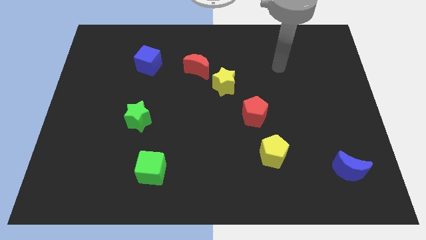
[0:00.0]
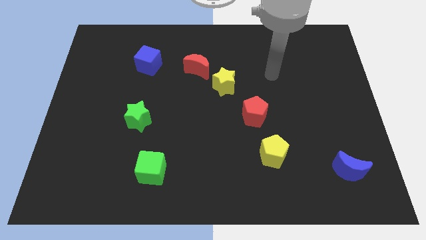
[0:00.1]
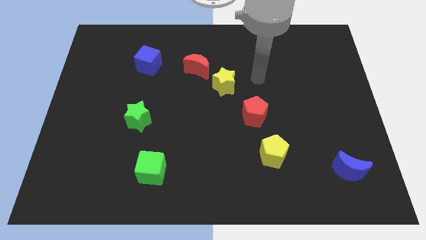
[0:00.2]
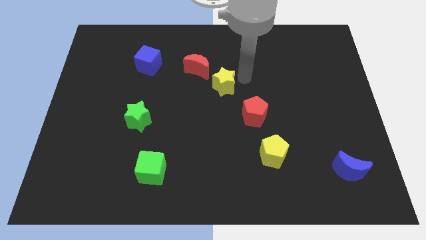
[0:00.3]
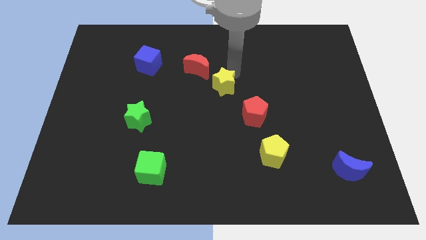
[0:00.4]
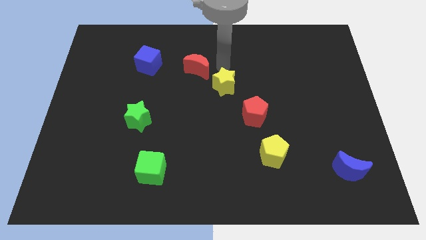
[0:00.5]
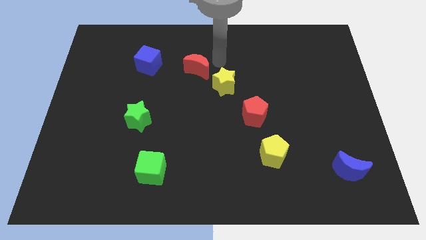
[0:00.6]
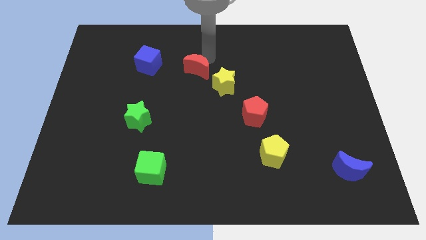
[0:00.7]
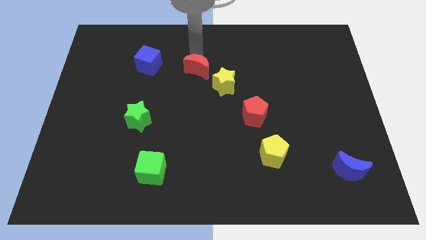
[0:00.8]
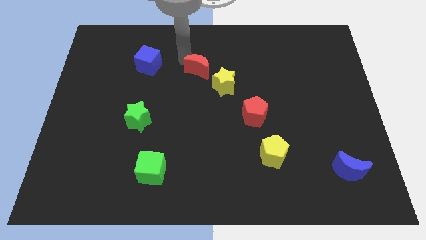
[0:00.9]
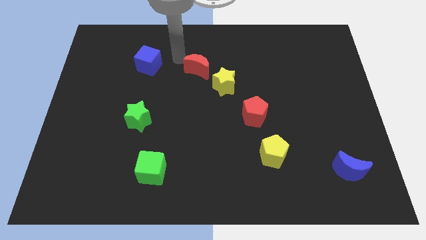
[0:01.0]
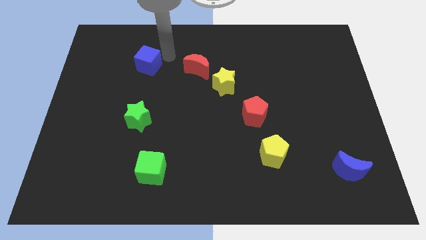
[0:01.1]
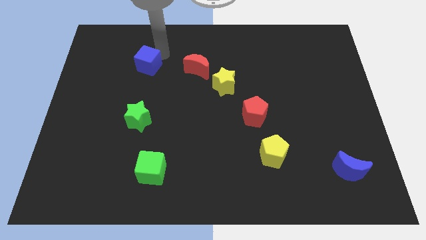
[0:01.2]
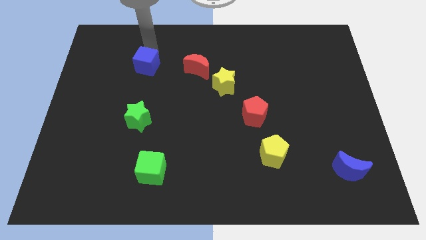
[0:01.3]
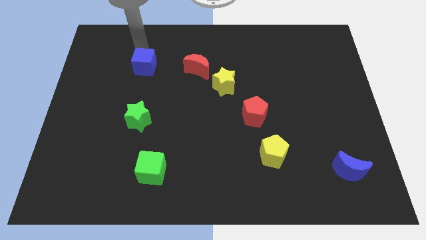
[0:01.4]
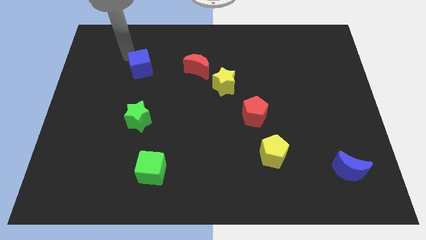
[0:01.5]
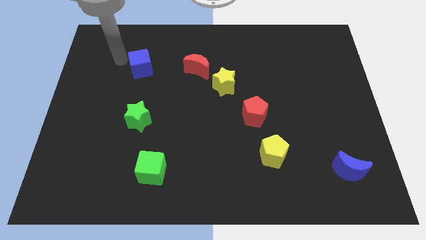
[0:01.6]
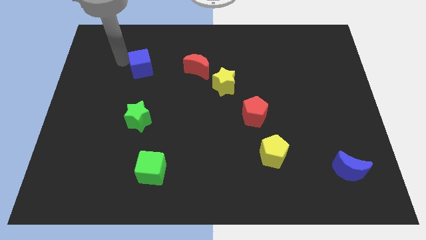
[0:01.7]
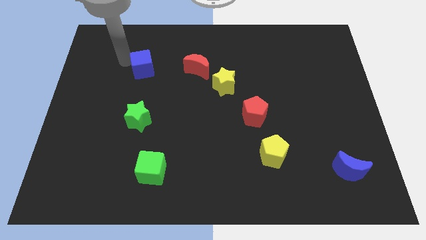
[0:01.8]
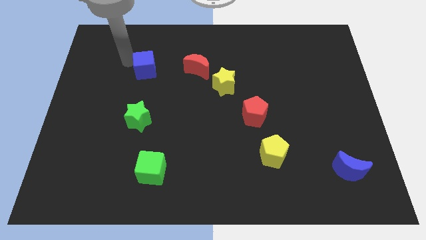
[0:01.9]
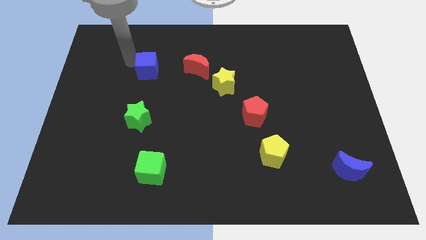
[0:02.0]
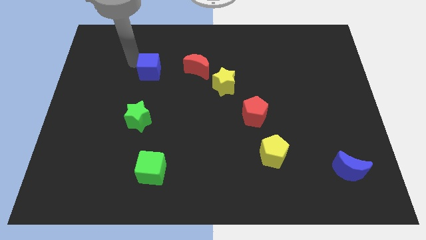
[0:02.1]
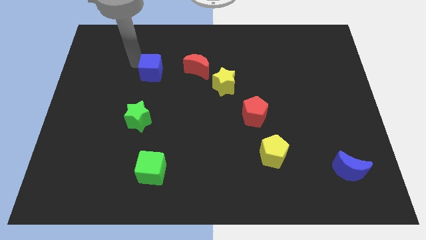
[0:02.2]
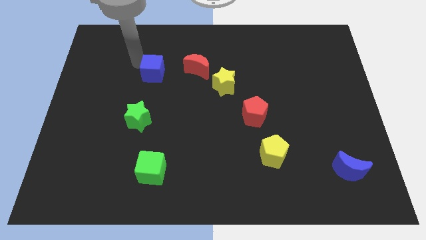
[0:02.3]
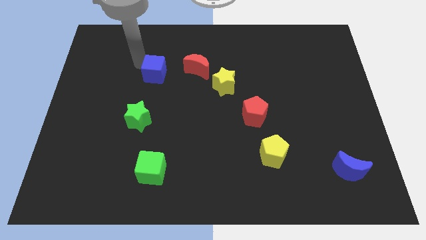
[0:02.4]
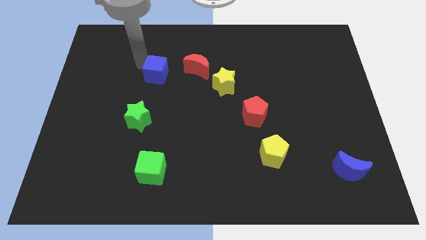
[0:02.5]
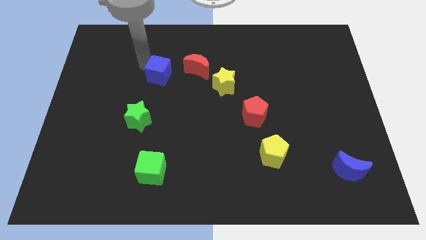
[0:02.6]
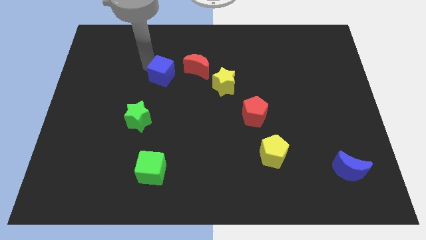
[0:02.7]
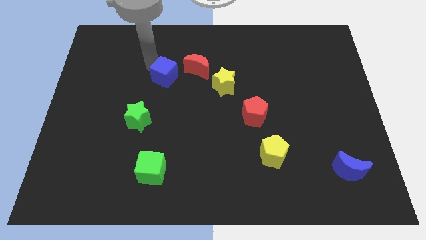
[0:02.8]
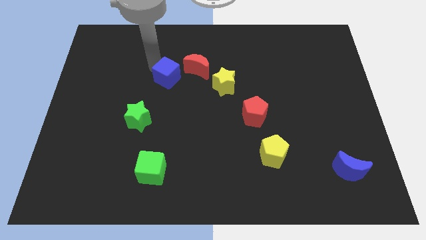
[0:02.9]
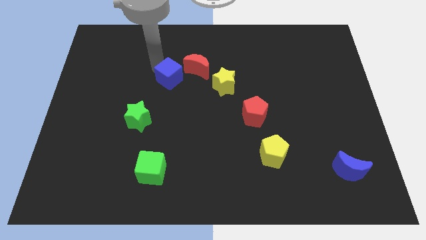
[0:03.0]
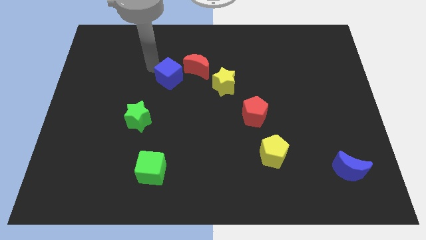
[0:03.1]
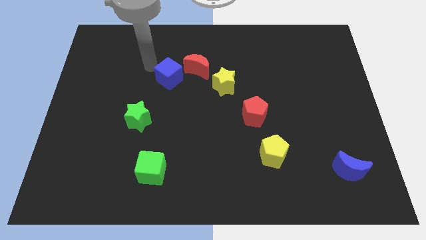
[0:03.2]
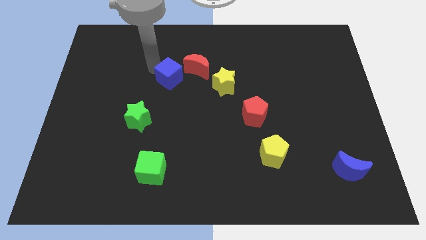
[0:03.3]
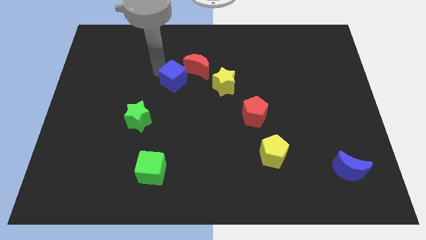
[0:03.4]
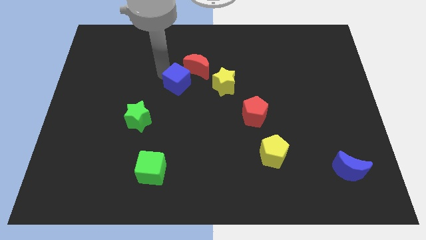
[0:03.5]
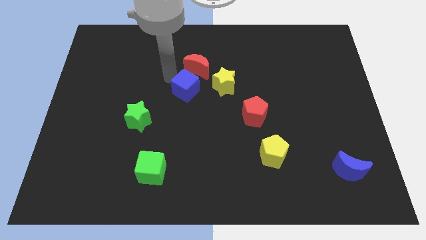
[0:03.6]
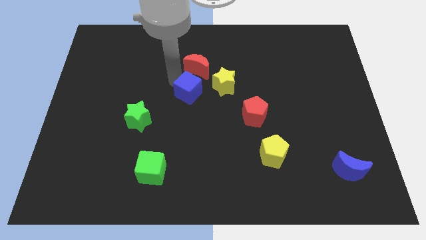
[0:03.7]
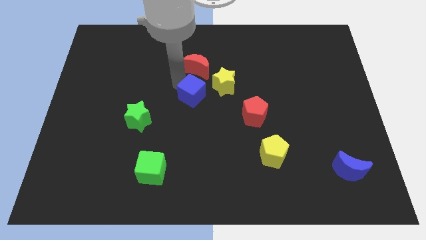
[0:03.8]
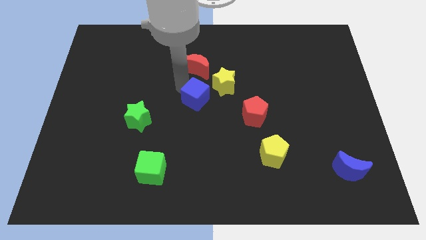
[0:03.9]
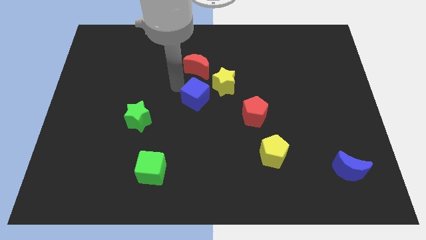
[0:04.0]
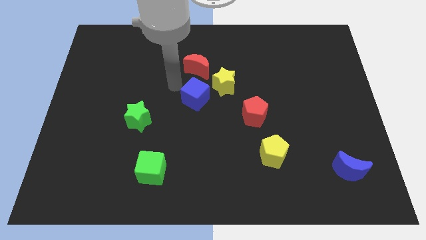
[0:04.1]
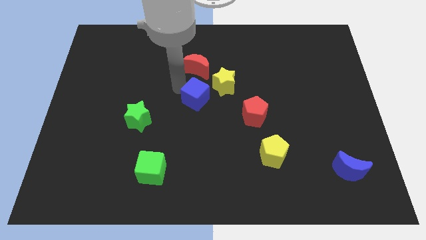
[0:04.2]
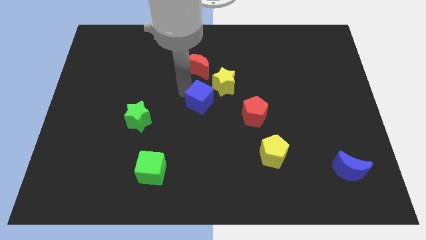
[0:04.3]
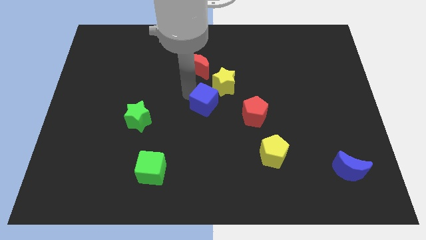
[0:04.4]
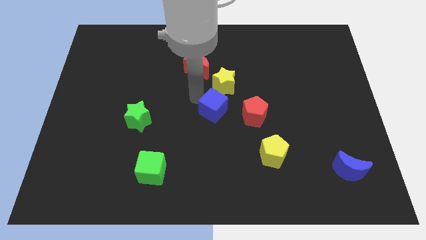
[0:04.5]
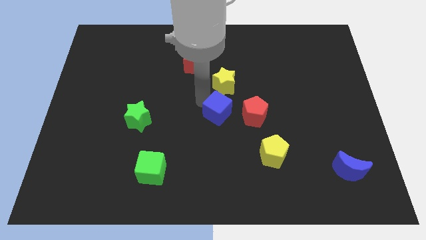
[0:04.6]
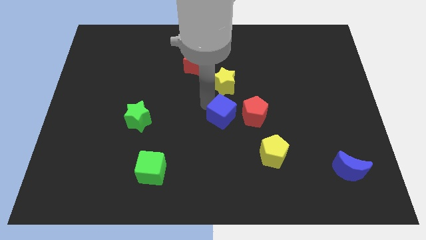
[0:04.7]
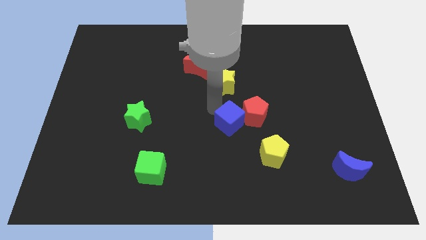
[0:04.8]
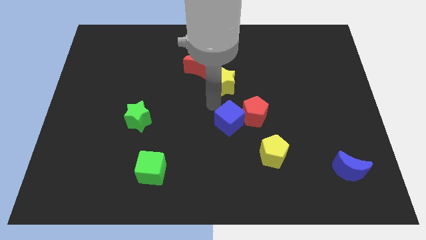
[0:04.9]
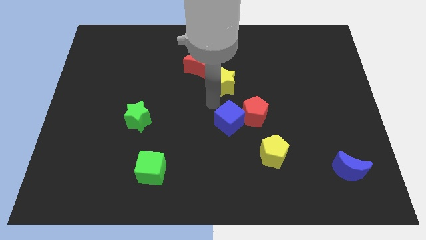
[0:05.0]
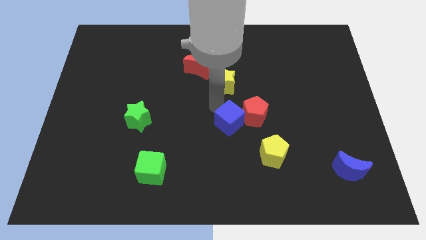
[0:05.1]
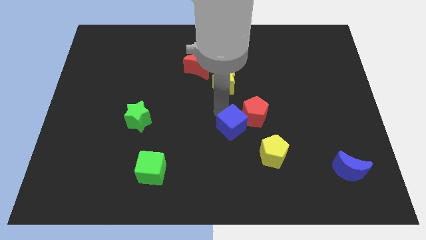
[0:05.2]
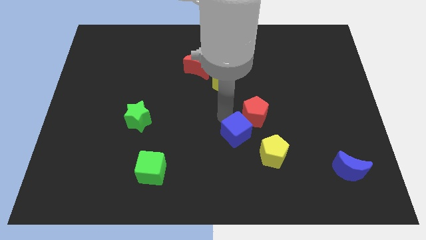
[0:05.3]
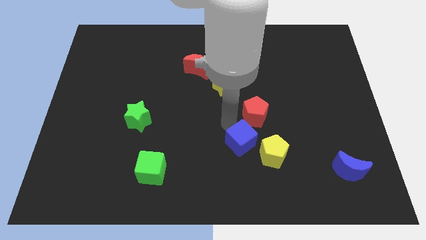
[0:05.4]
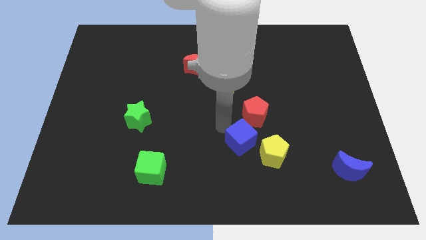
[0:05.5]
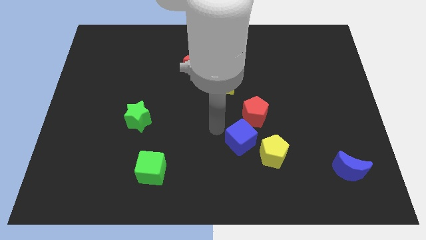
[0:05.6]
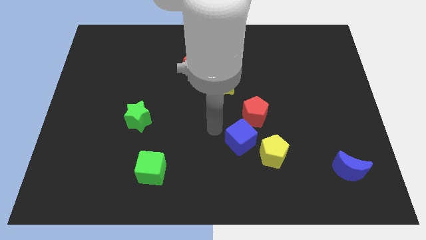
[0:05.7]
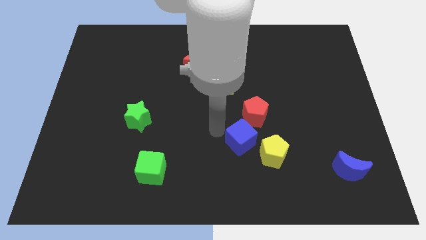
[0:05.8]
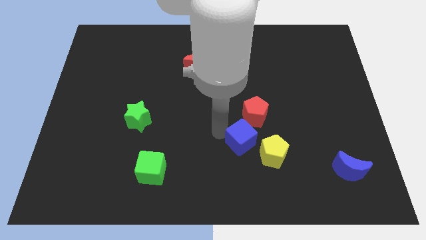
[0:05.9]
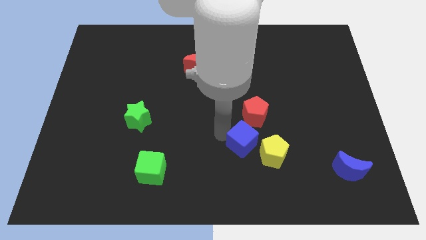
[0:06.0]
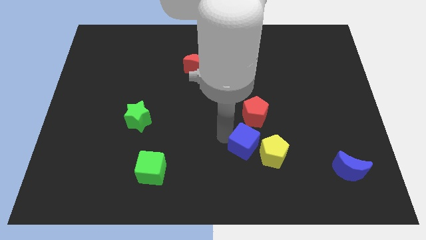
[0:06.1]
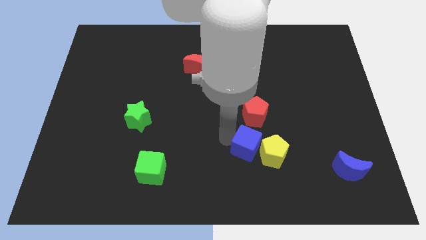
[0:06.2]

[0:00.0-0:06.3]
push the blue cube close to the yellow pentagon
